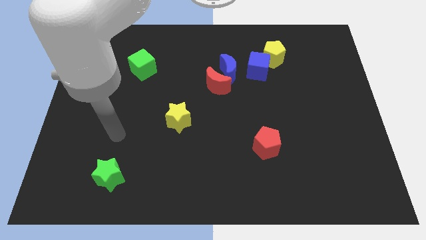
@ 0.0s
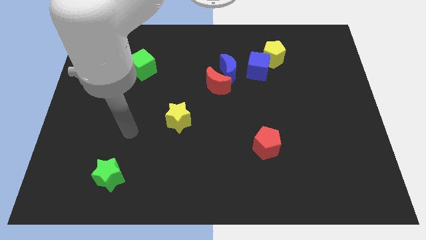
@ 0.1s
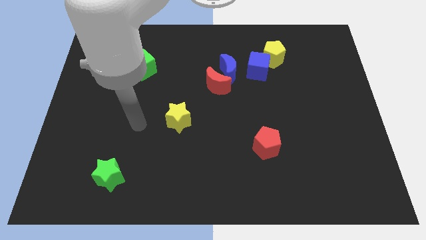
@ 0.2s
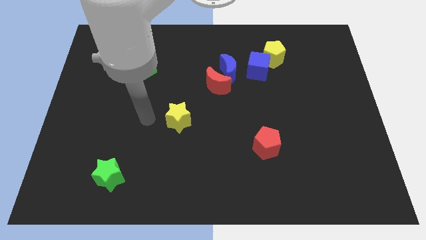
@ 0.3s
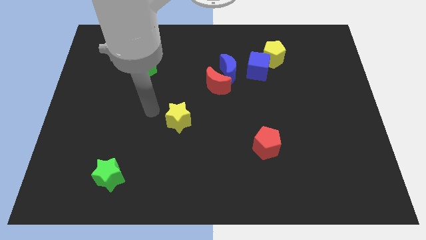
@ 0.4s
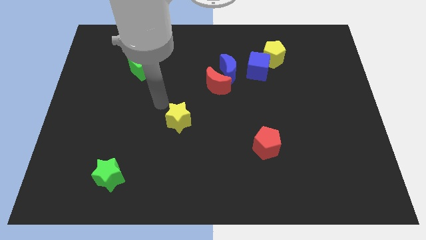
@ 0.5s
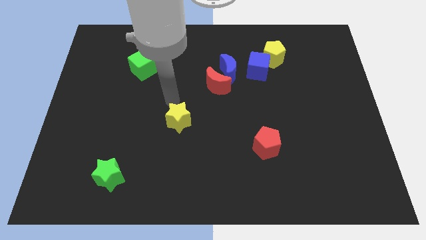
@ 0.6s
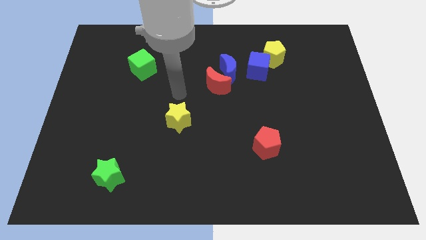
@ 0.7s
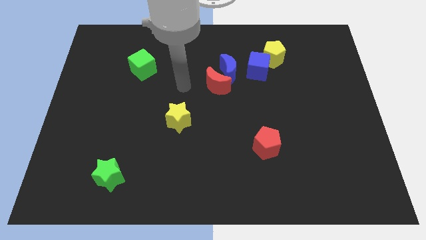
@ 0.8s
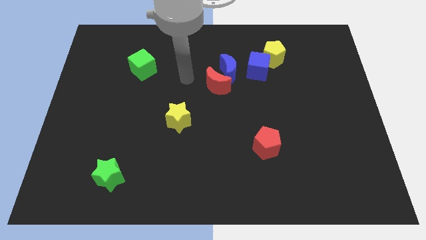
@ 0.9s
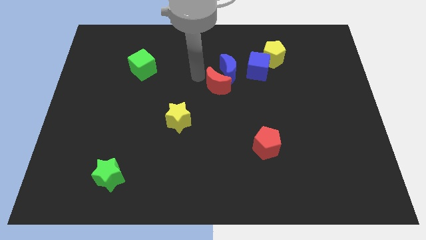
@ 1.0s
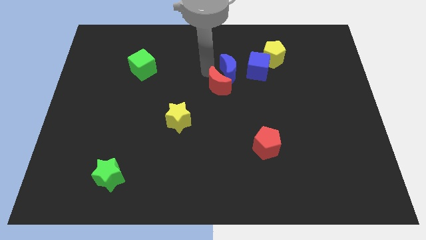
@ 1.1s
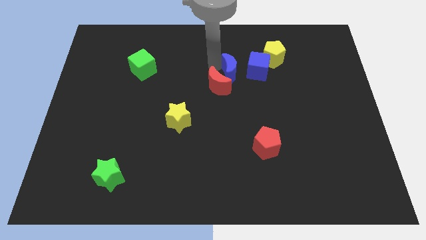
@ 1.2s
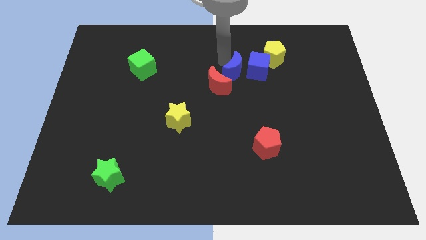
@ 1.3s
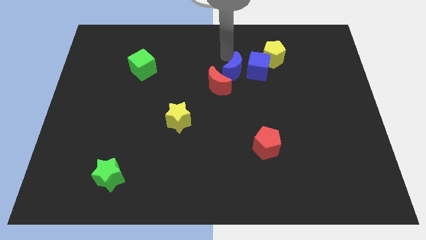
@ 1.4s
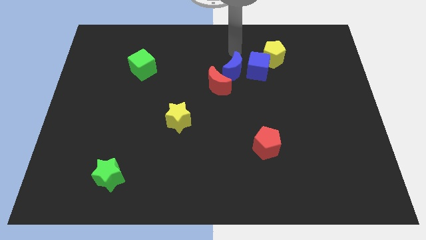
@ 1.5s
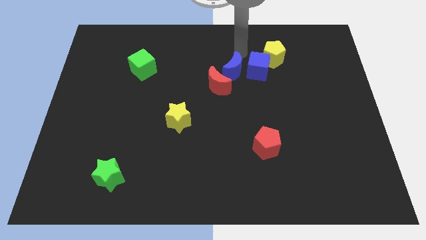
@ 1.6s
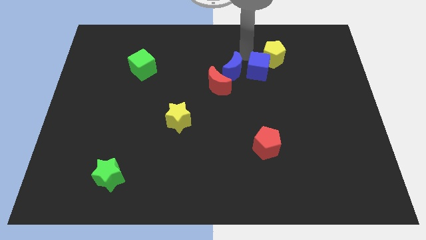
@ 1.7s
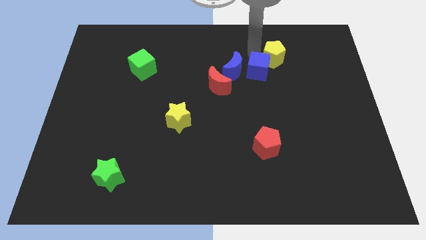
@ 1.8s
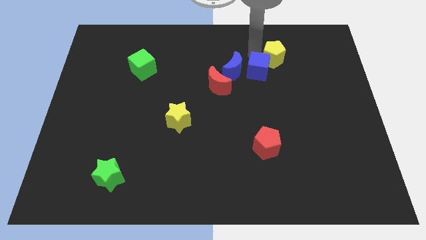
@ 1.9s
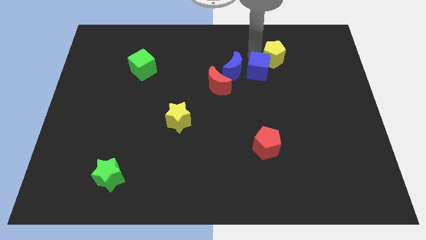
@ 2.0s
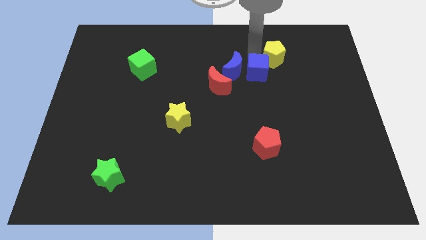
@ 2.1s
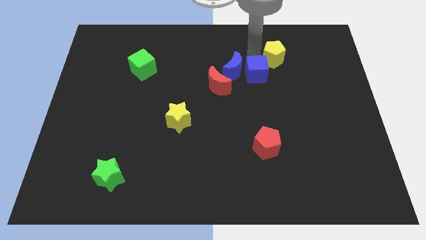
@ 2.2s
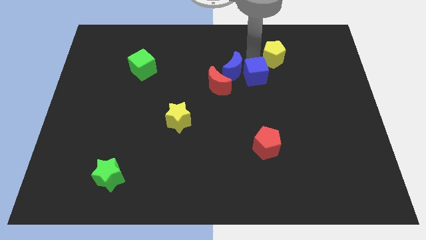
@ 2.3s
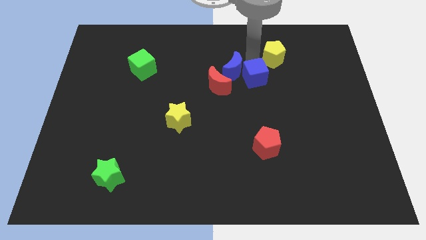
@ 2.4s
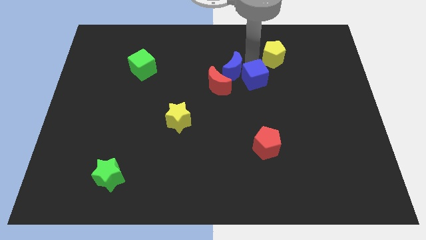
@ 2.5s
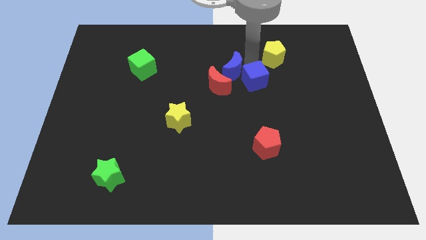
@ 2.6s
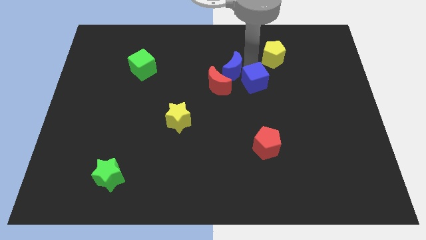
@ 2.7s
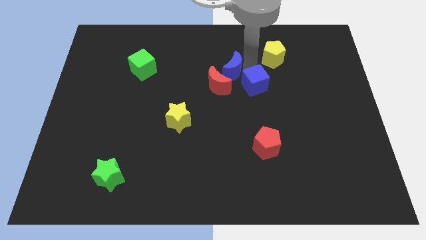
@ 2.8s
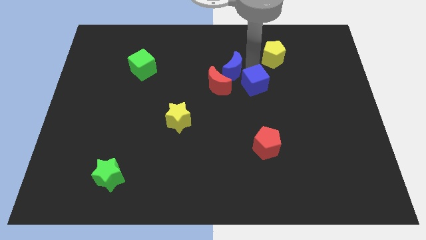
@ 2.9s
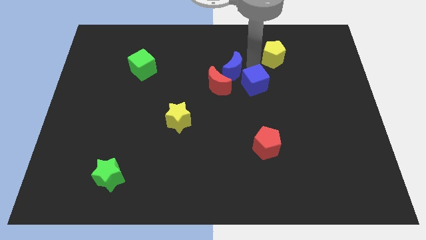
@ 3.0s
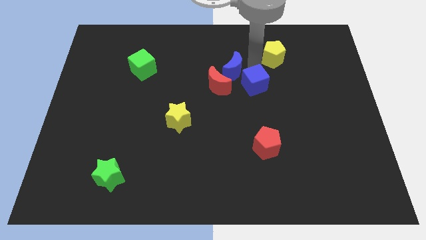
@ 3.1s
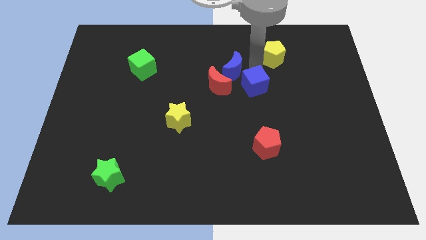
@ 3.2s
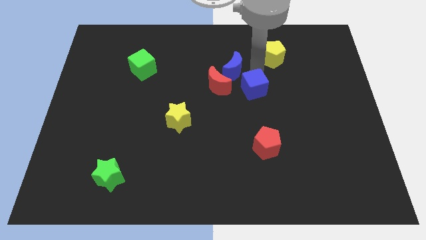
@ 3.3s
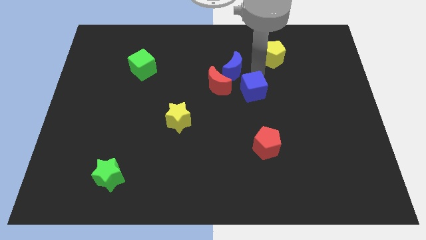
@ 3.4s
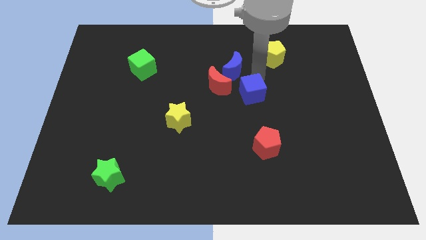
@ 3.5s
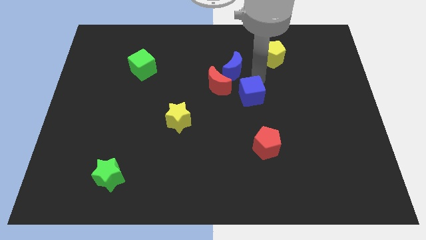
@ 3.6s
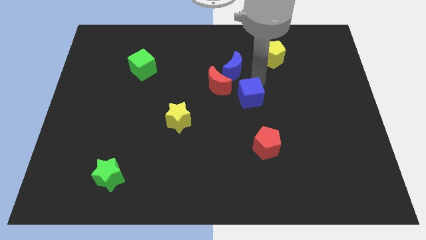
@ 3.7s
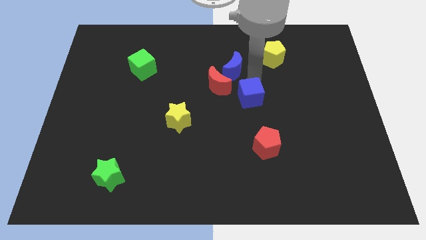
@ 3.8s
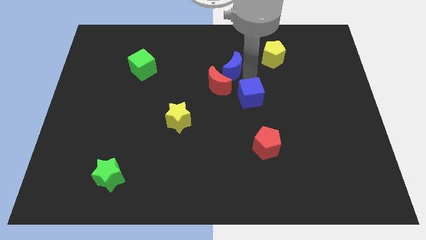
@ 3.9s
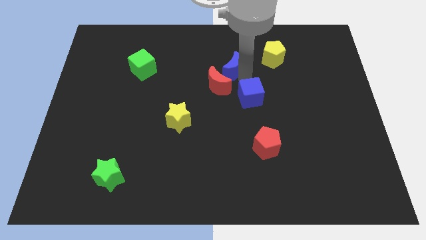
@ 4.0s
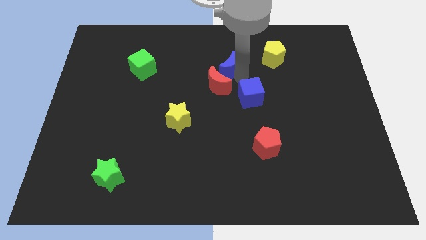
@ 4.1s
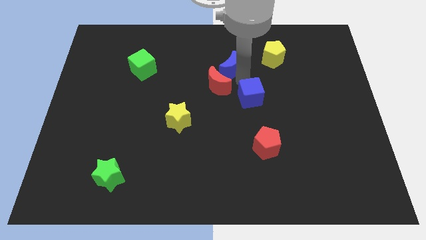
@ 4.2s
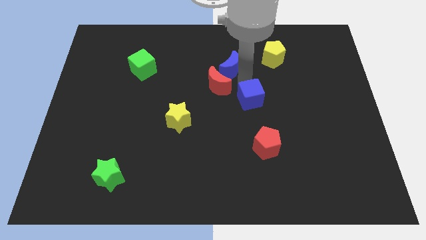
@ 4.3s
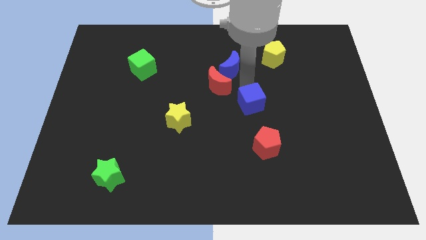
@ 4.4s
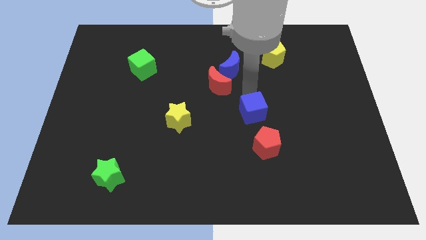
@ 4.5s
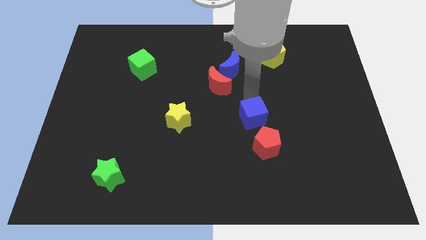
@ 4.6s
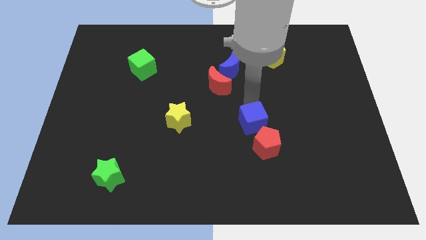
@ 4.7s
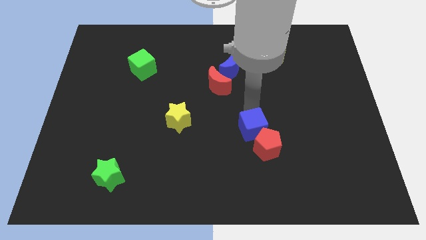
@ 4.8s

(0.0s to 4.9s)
push the blue cube towards the red pentagon

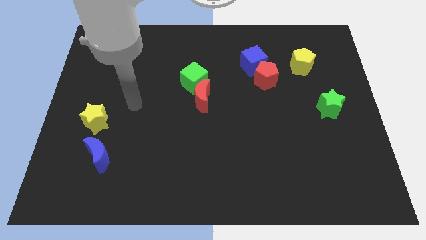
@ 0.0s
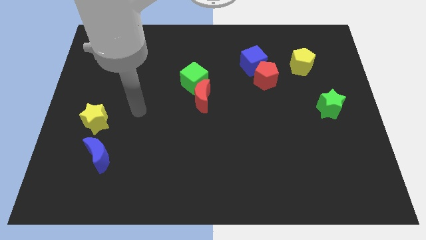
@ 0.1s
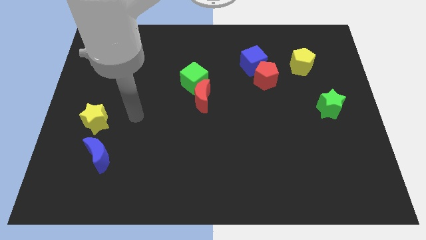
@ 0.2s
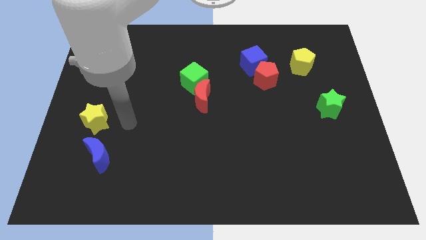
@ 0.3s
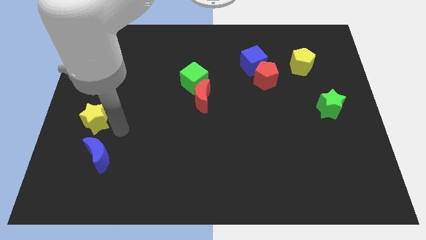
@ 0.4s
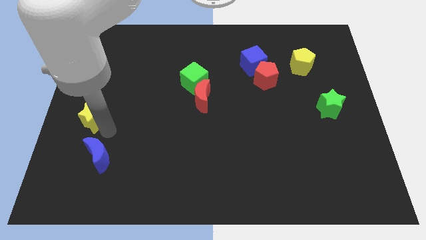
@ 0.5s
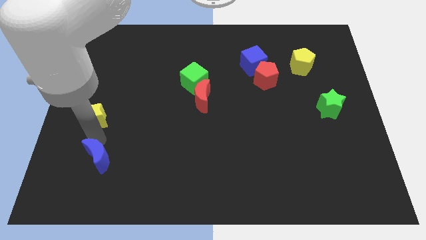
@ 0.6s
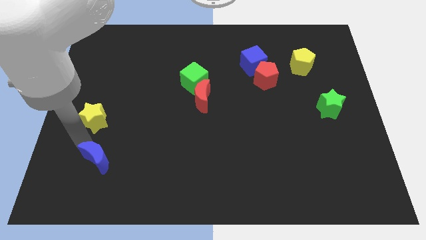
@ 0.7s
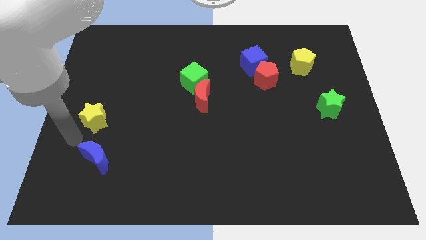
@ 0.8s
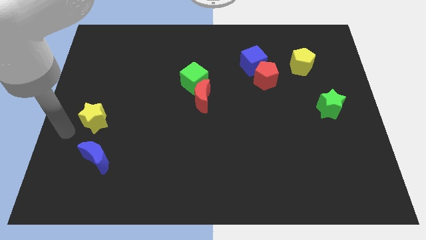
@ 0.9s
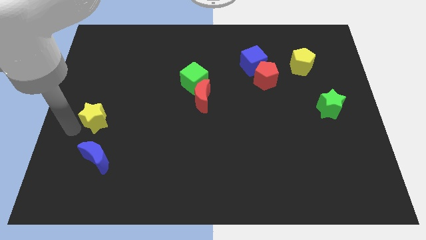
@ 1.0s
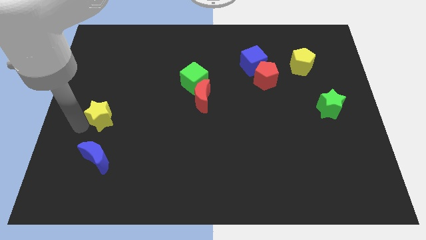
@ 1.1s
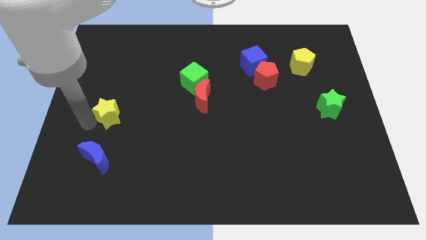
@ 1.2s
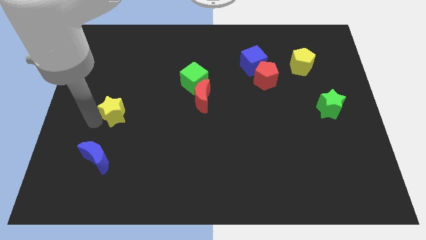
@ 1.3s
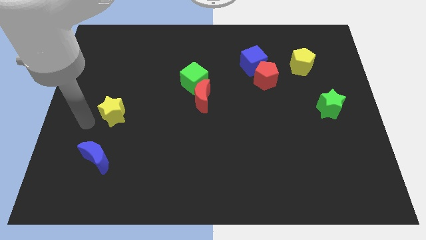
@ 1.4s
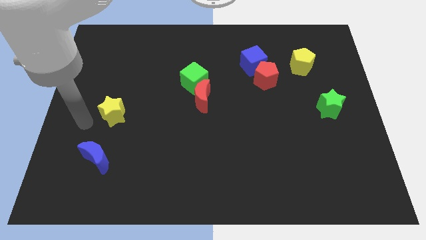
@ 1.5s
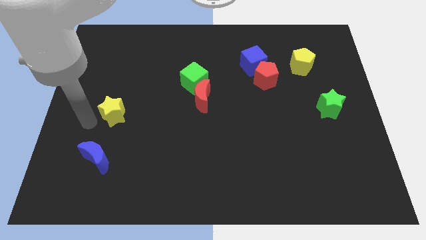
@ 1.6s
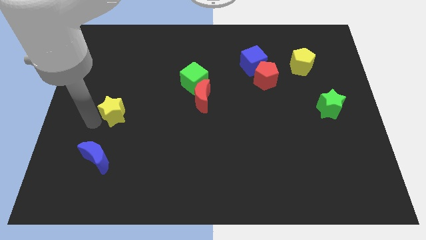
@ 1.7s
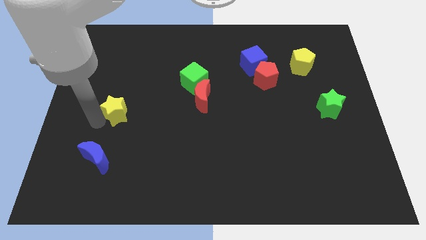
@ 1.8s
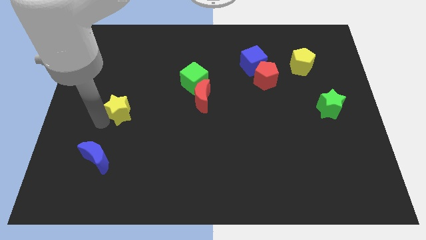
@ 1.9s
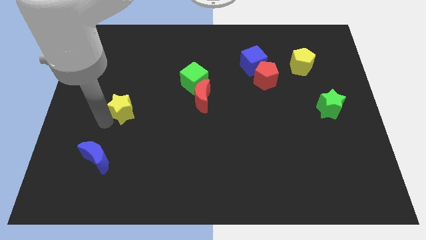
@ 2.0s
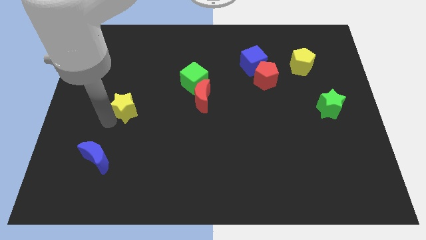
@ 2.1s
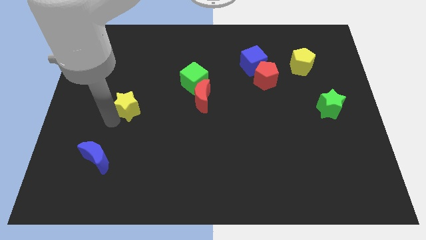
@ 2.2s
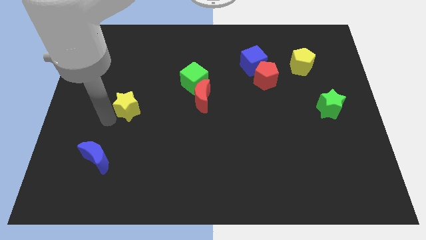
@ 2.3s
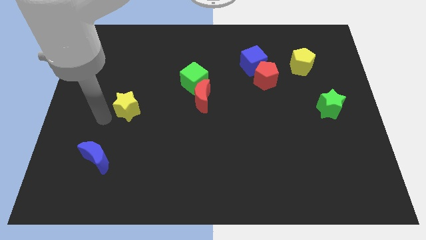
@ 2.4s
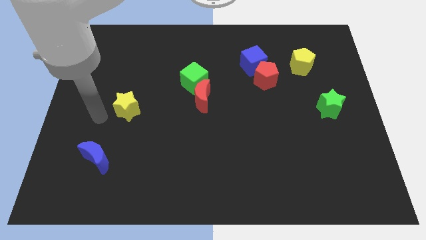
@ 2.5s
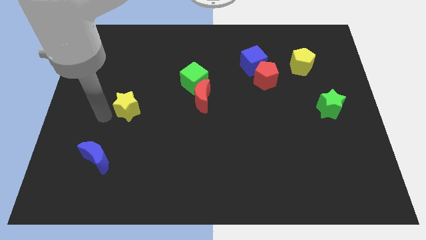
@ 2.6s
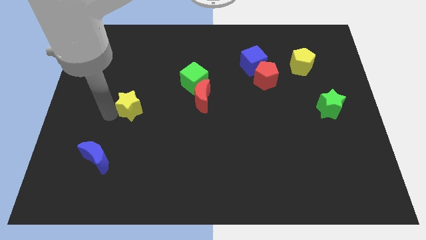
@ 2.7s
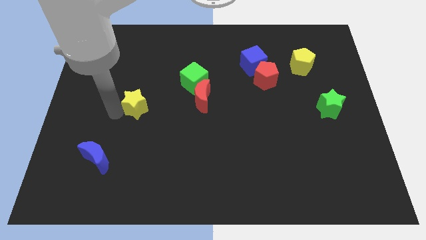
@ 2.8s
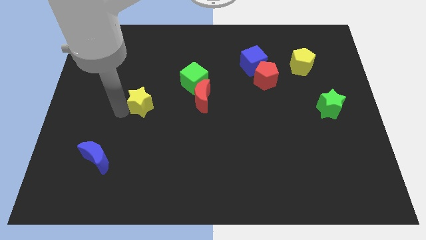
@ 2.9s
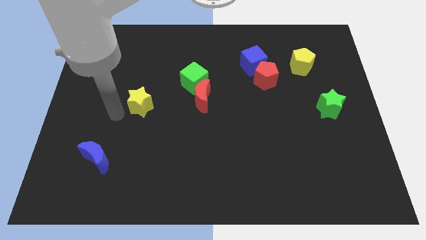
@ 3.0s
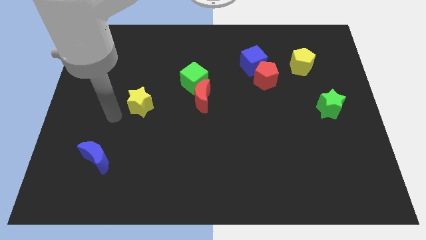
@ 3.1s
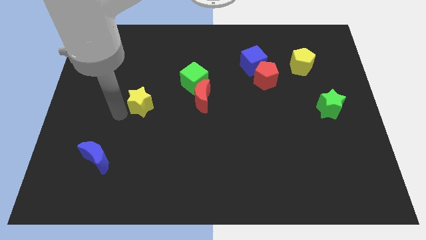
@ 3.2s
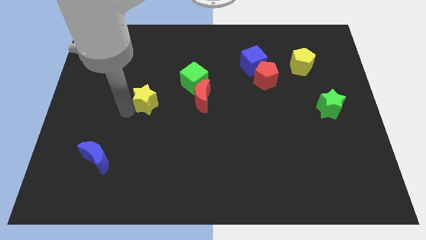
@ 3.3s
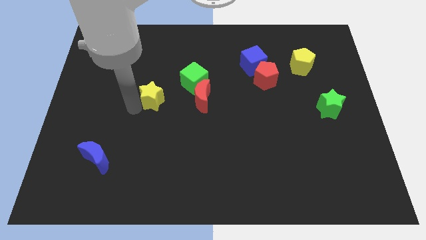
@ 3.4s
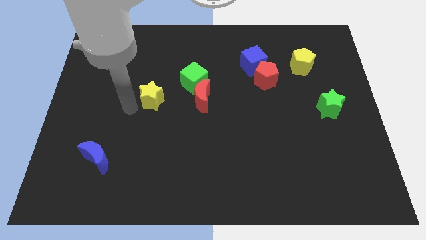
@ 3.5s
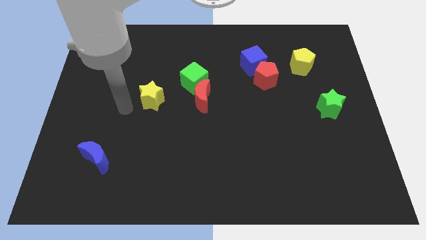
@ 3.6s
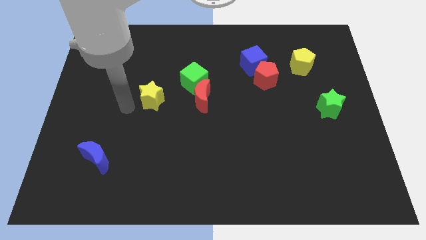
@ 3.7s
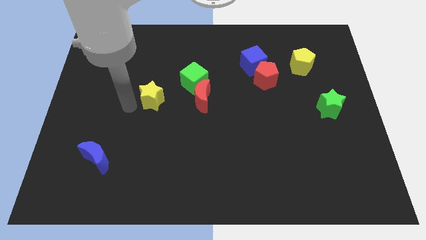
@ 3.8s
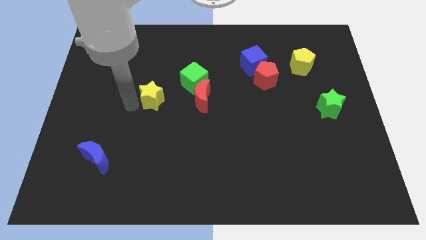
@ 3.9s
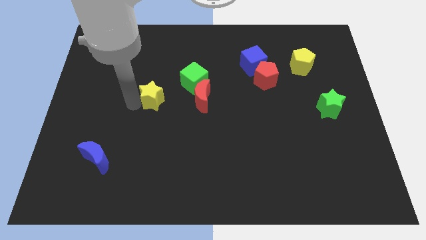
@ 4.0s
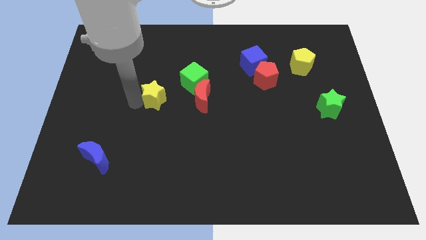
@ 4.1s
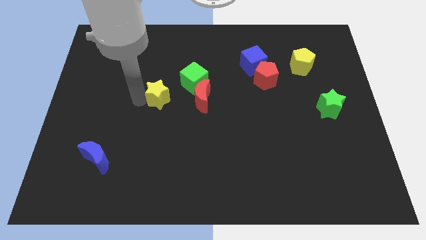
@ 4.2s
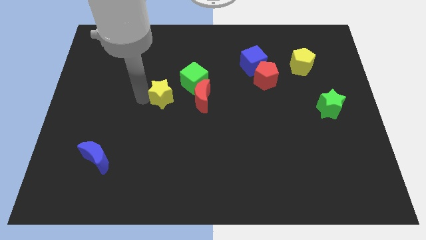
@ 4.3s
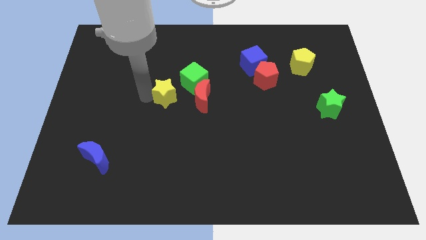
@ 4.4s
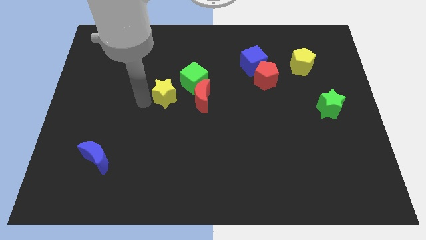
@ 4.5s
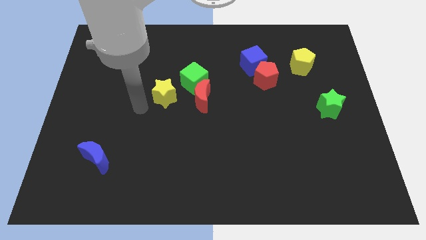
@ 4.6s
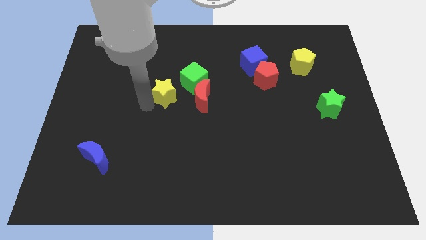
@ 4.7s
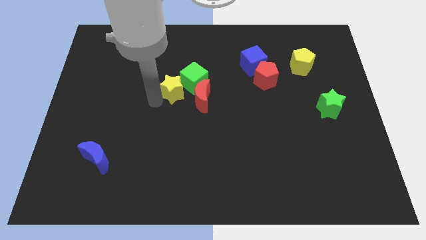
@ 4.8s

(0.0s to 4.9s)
slide the yellow star to the green cube
